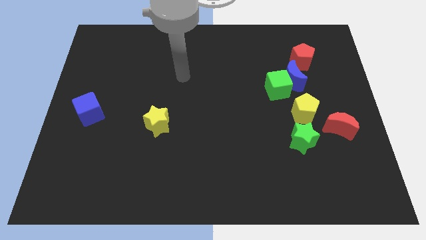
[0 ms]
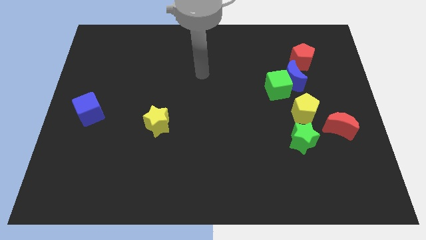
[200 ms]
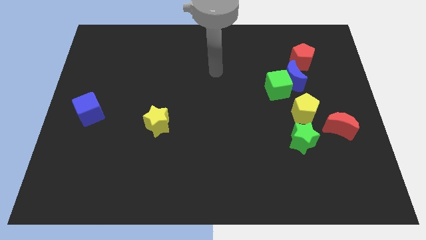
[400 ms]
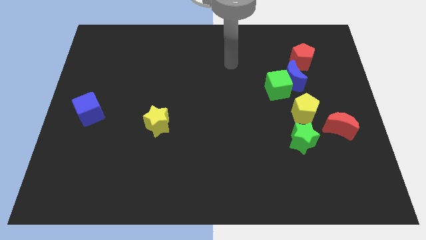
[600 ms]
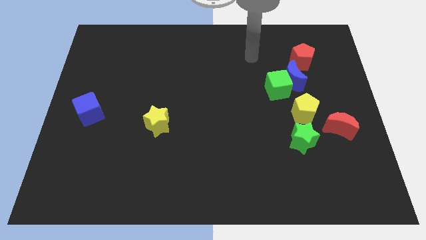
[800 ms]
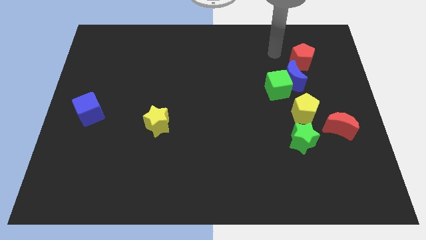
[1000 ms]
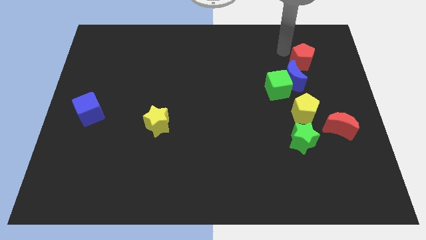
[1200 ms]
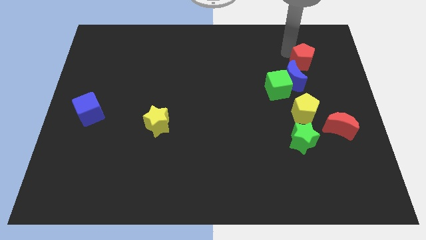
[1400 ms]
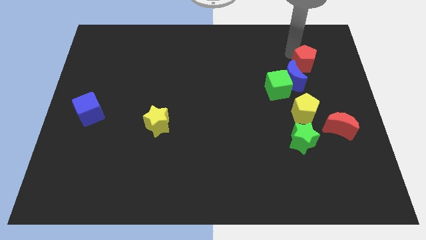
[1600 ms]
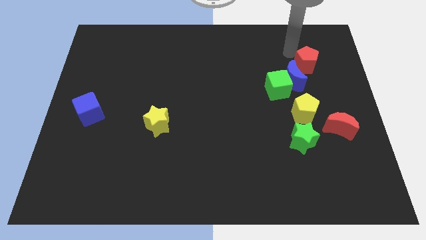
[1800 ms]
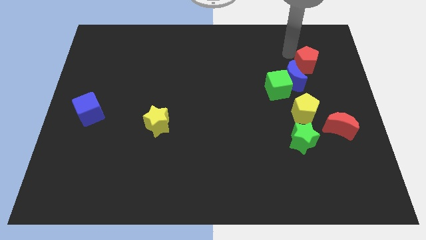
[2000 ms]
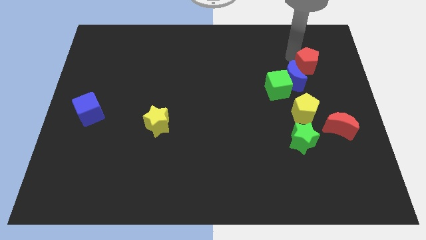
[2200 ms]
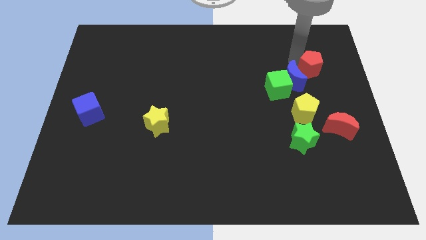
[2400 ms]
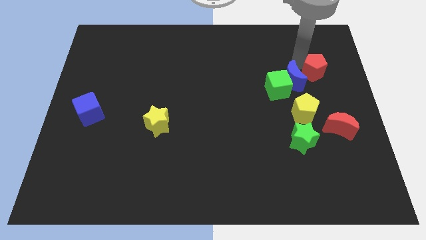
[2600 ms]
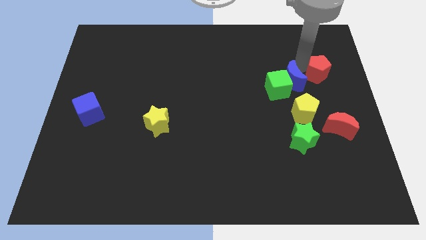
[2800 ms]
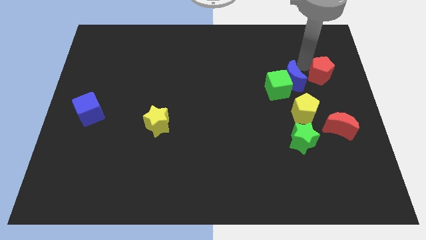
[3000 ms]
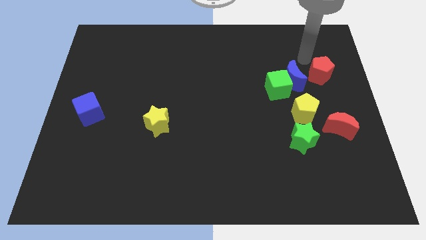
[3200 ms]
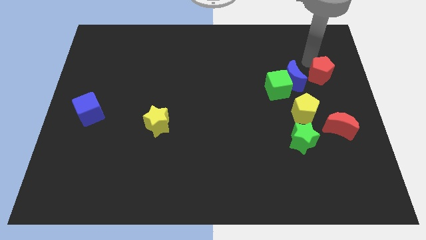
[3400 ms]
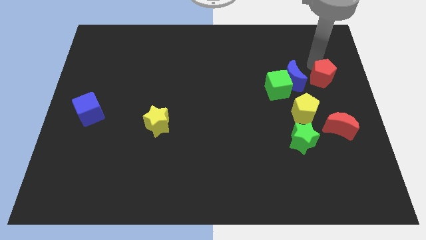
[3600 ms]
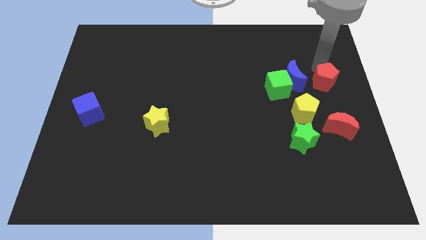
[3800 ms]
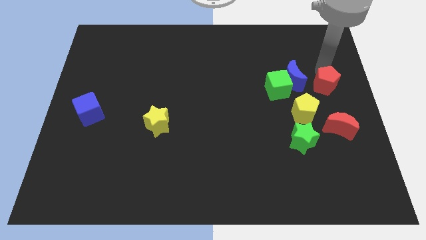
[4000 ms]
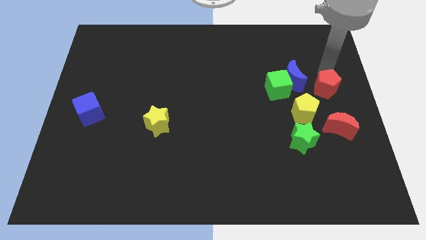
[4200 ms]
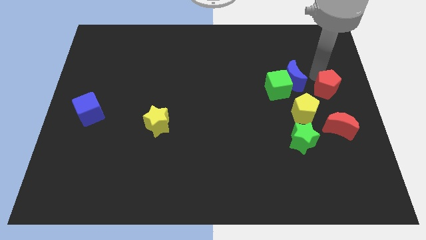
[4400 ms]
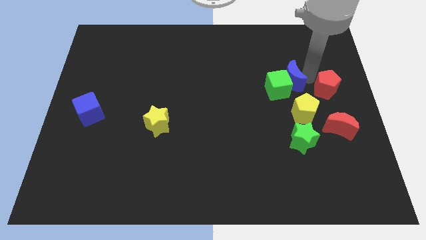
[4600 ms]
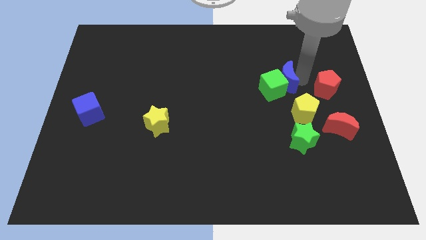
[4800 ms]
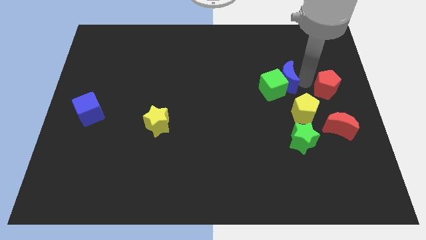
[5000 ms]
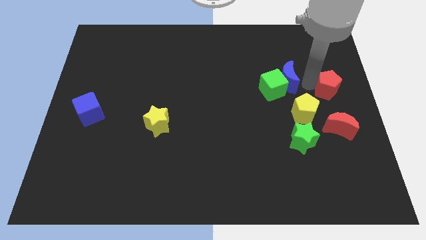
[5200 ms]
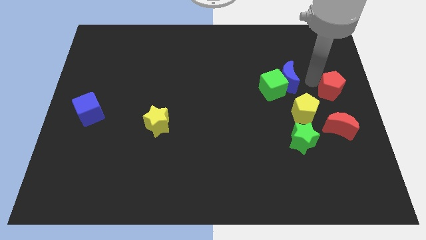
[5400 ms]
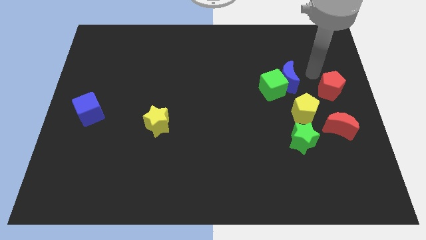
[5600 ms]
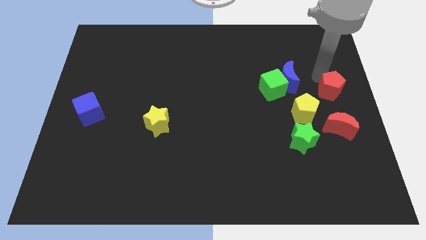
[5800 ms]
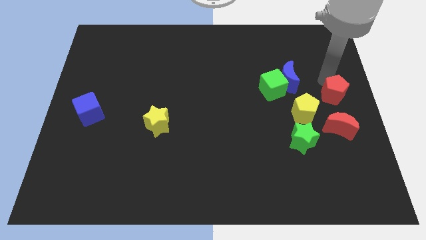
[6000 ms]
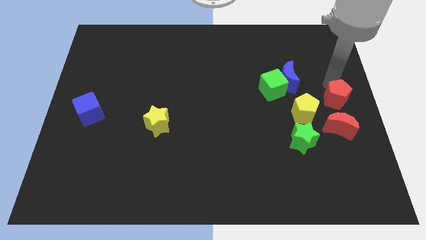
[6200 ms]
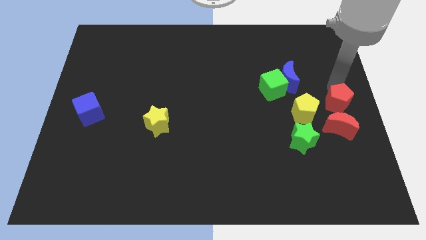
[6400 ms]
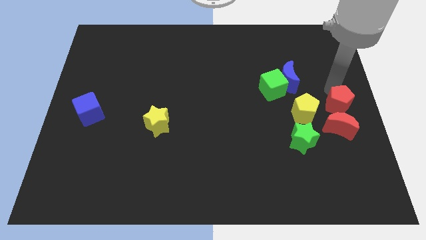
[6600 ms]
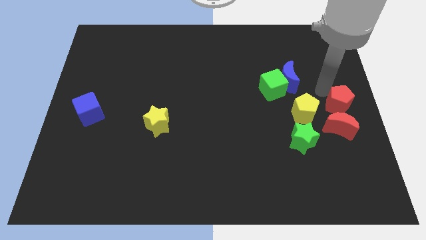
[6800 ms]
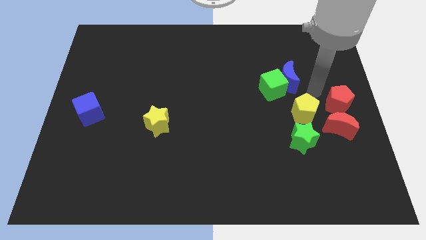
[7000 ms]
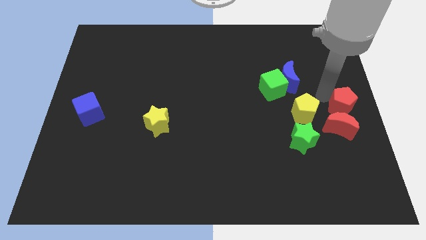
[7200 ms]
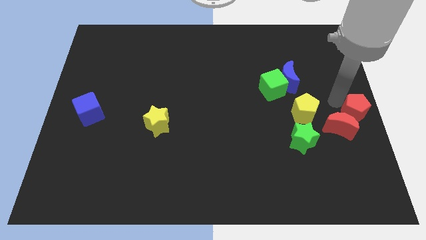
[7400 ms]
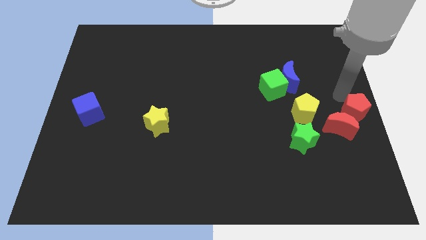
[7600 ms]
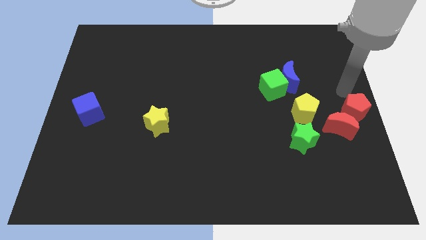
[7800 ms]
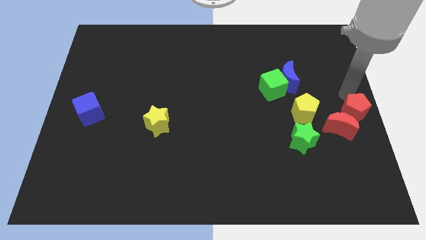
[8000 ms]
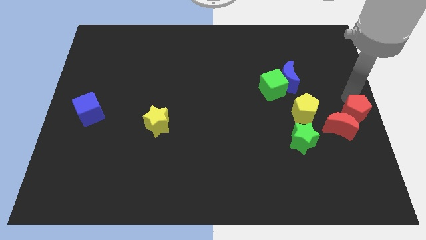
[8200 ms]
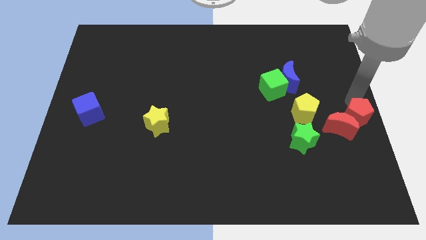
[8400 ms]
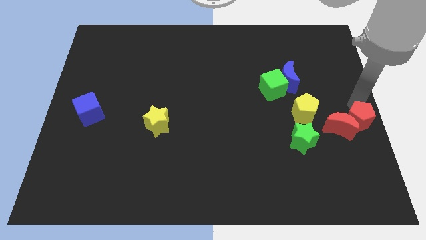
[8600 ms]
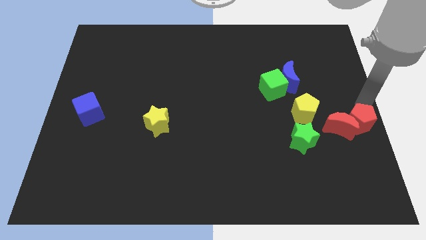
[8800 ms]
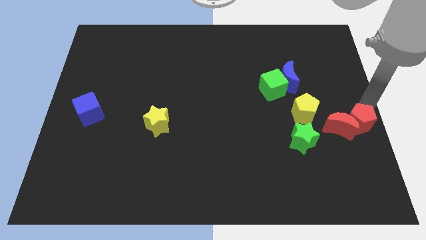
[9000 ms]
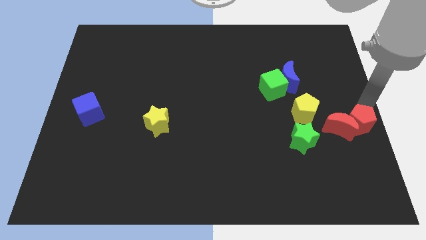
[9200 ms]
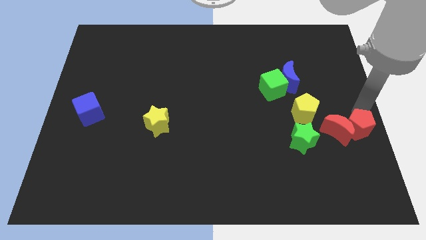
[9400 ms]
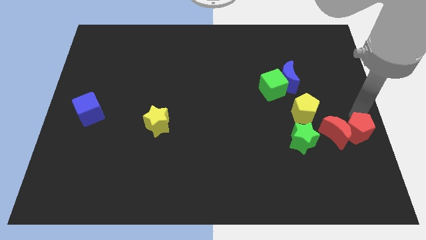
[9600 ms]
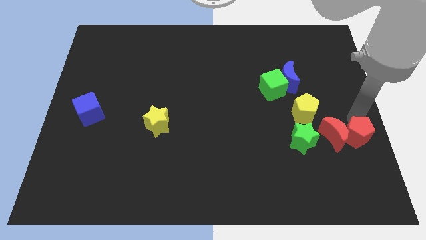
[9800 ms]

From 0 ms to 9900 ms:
push the red pentagon down

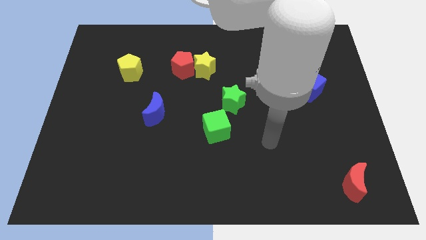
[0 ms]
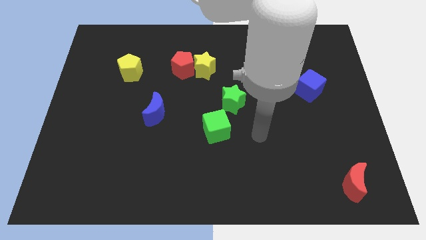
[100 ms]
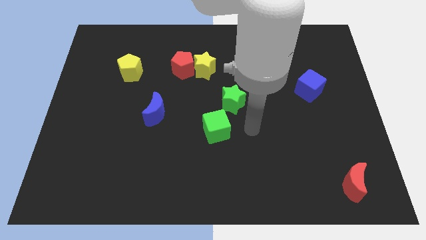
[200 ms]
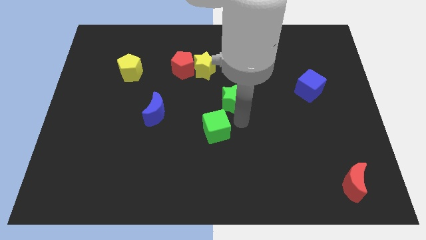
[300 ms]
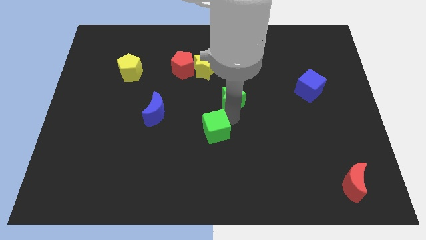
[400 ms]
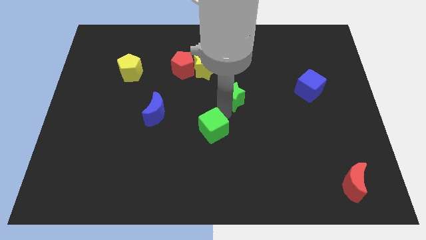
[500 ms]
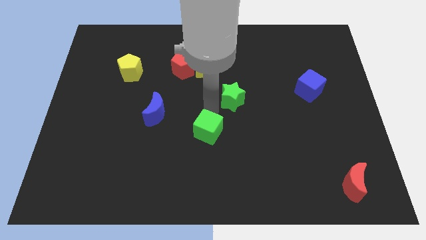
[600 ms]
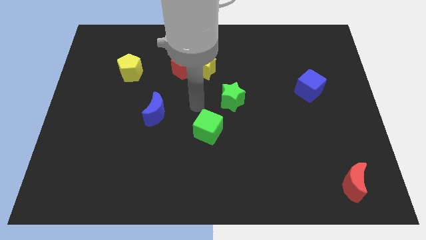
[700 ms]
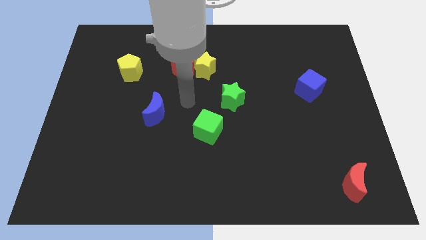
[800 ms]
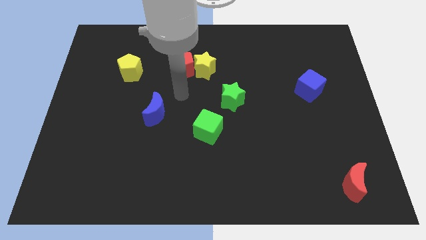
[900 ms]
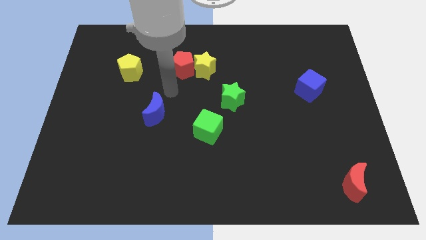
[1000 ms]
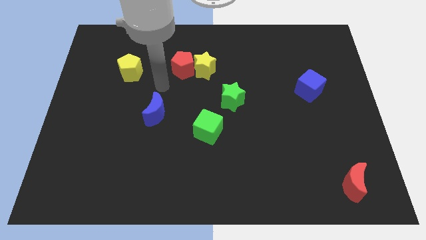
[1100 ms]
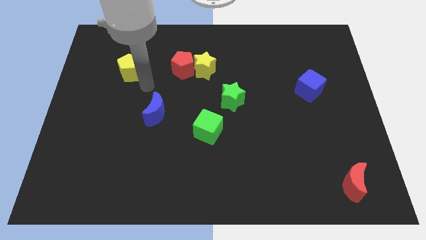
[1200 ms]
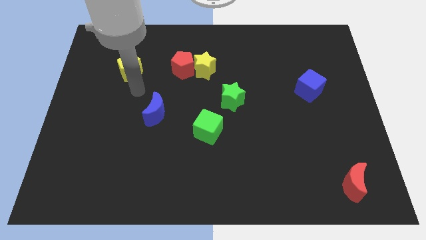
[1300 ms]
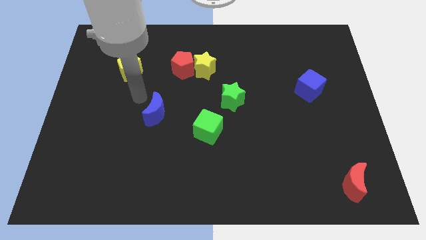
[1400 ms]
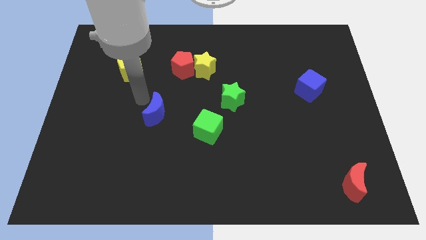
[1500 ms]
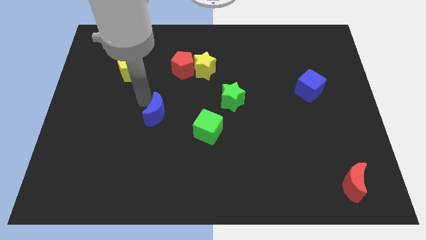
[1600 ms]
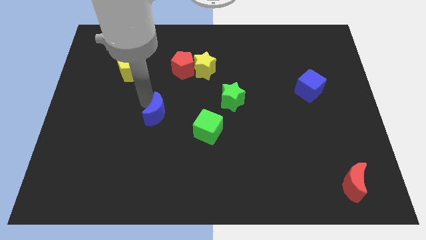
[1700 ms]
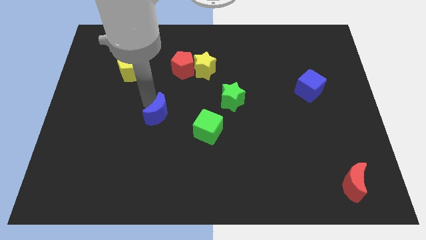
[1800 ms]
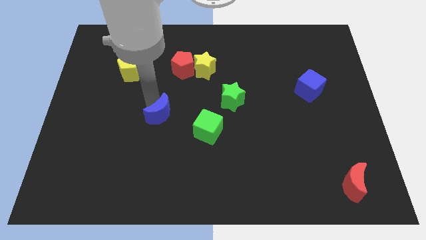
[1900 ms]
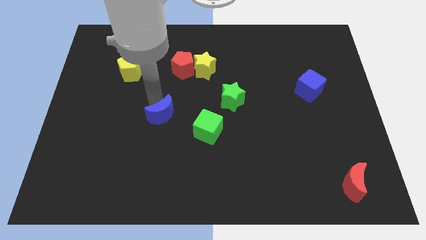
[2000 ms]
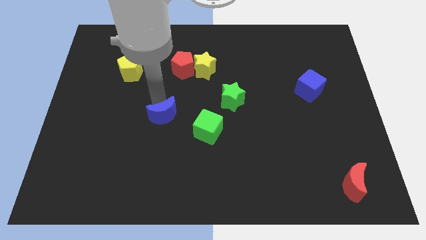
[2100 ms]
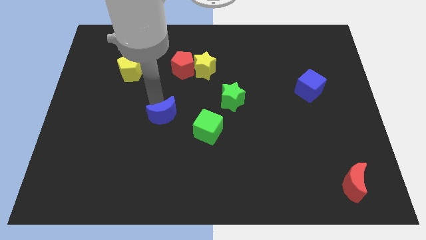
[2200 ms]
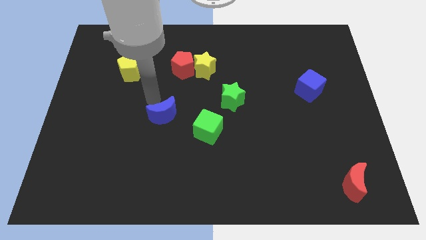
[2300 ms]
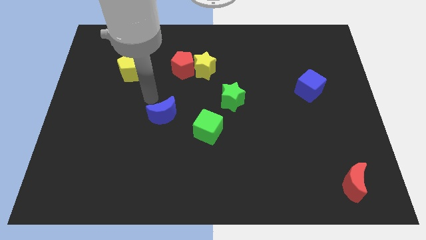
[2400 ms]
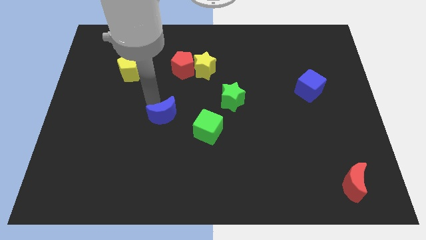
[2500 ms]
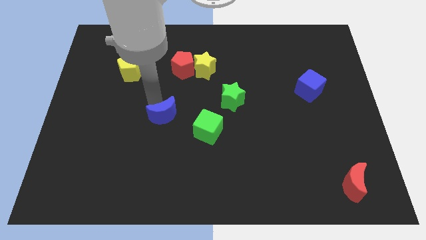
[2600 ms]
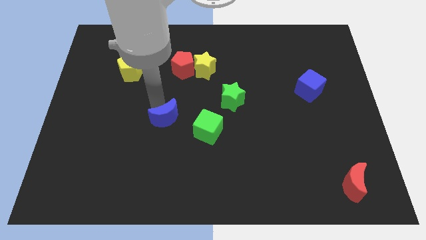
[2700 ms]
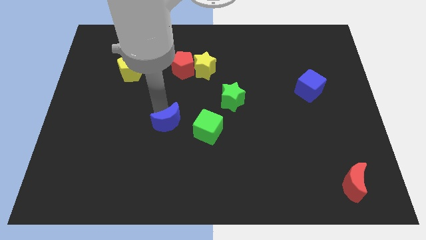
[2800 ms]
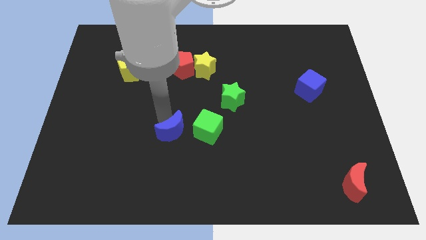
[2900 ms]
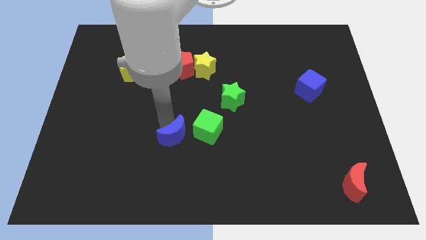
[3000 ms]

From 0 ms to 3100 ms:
slide the blue moon downwards and right diagonally somewhat

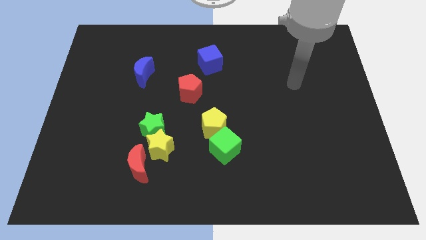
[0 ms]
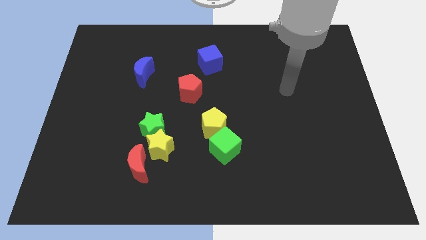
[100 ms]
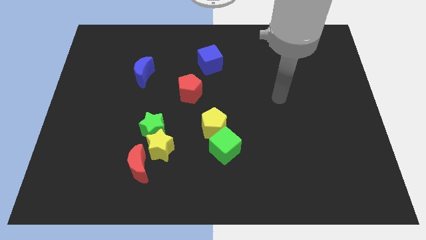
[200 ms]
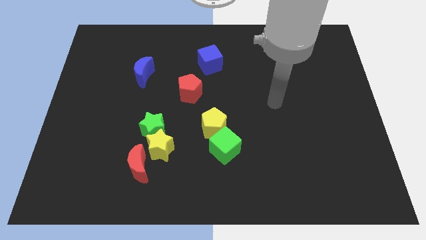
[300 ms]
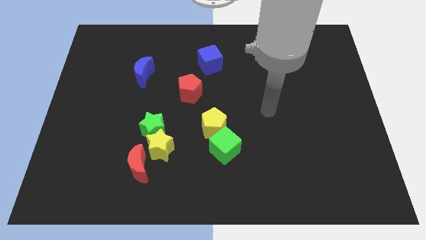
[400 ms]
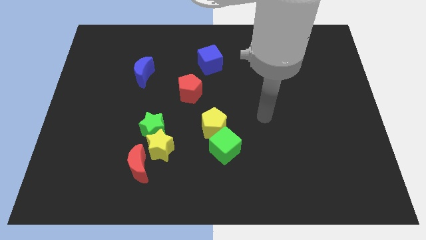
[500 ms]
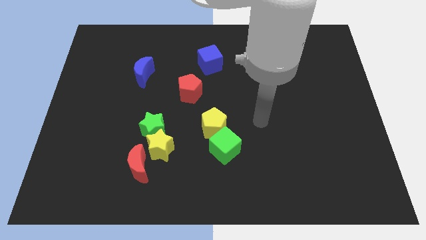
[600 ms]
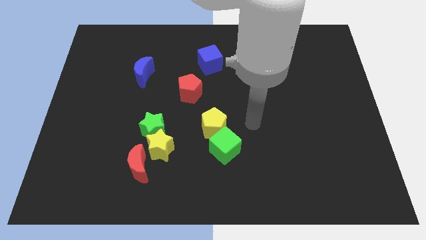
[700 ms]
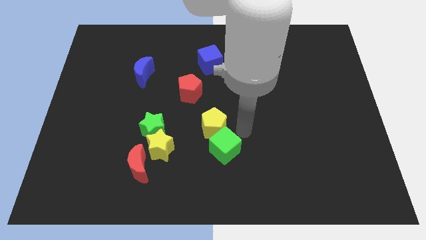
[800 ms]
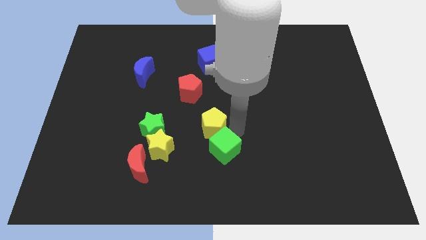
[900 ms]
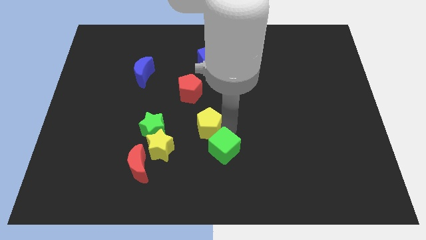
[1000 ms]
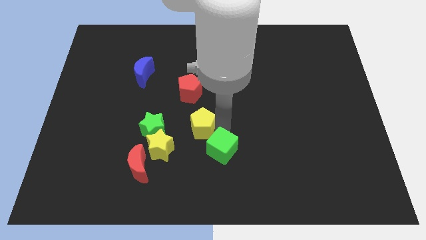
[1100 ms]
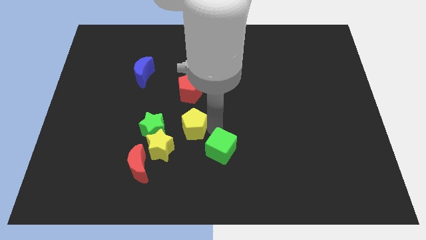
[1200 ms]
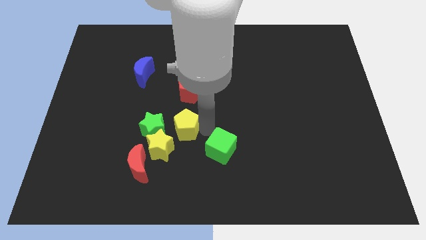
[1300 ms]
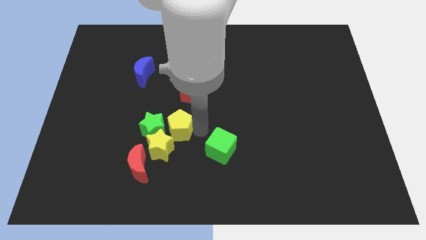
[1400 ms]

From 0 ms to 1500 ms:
move the yellow pentagon to the left a little
